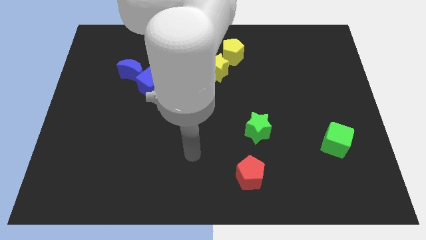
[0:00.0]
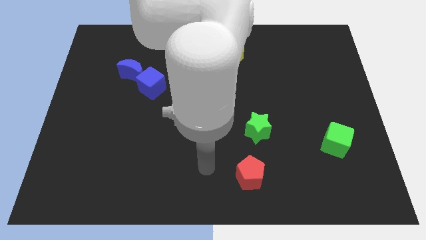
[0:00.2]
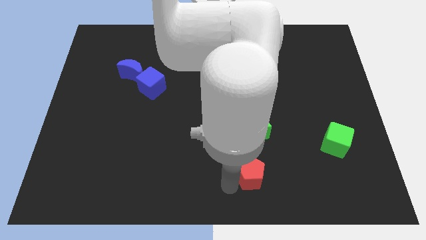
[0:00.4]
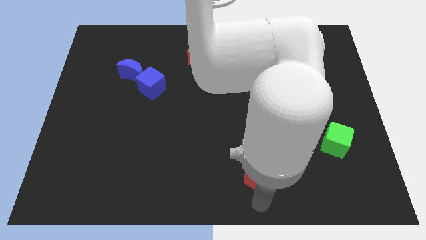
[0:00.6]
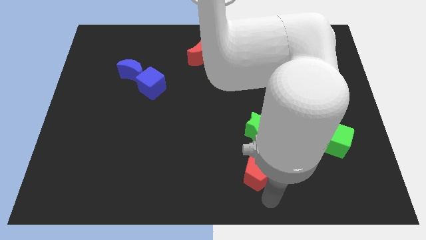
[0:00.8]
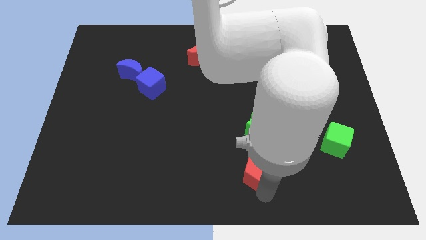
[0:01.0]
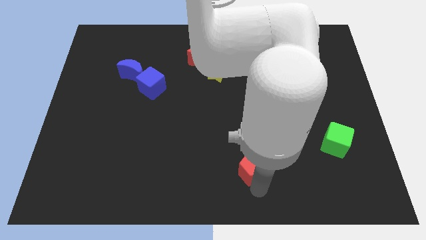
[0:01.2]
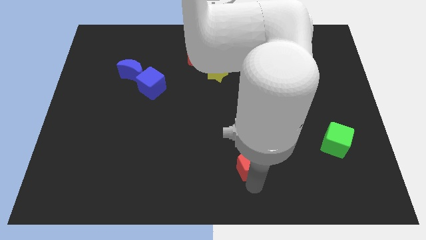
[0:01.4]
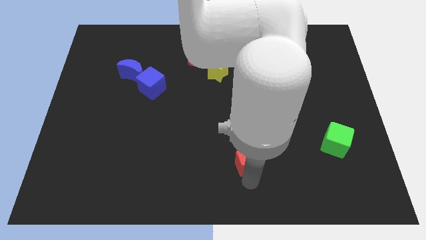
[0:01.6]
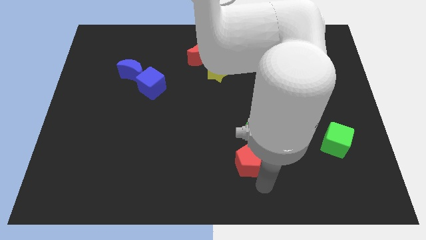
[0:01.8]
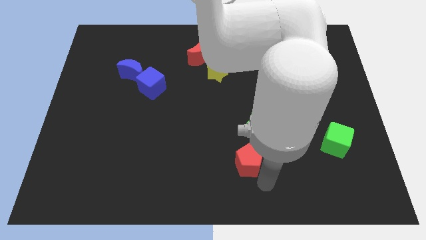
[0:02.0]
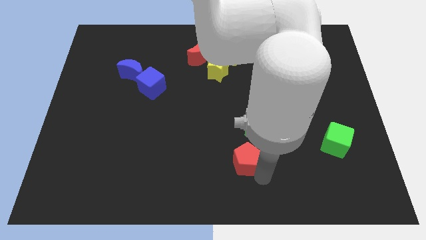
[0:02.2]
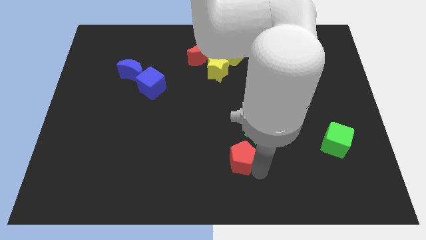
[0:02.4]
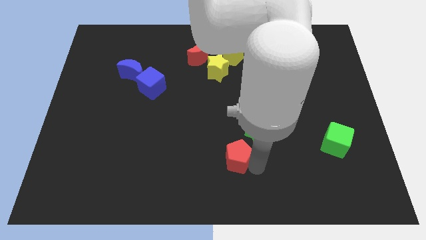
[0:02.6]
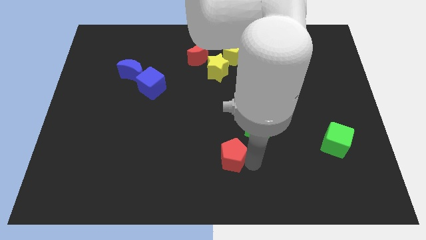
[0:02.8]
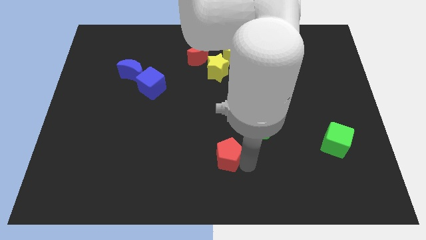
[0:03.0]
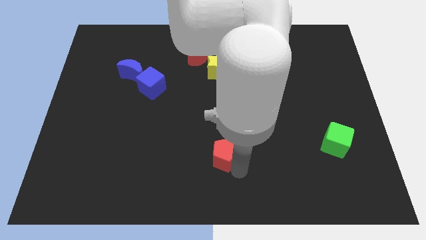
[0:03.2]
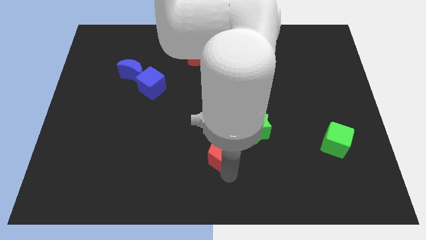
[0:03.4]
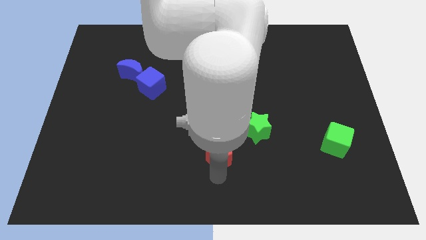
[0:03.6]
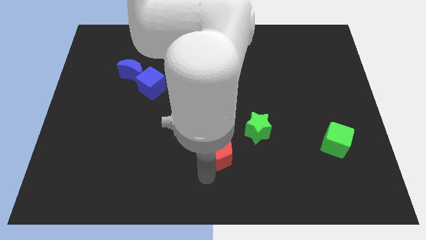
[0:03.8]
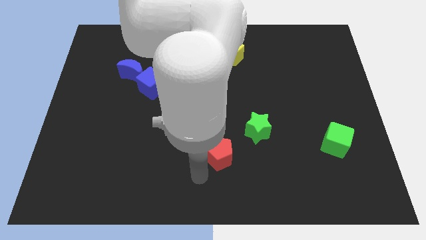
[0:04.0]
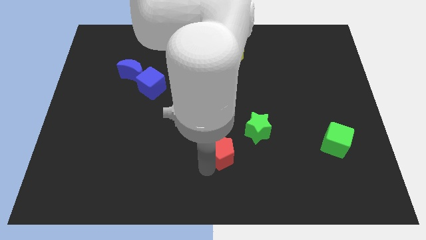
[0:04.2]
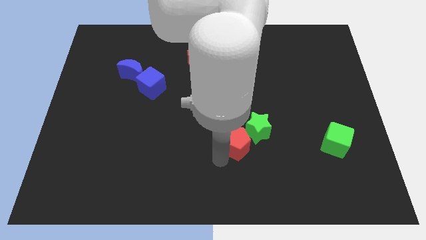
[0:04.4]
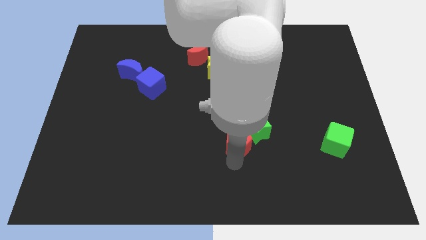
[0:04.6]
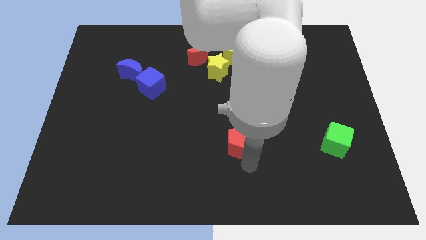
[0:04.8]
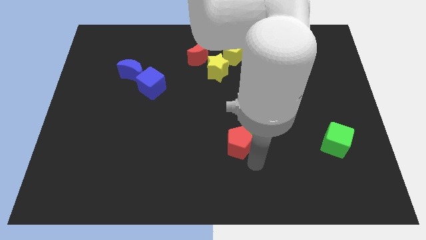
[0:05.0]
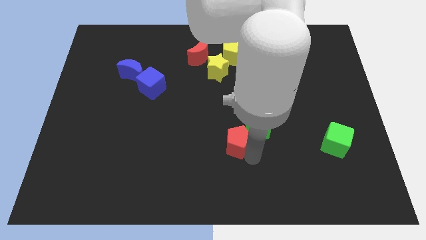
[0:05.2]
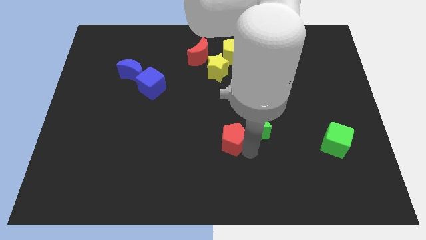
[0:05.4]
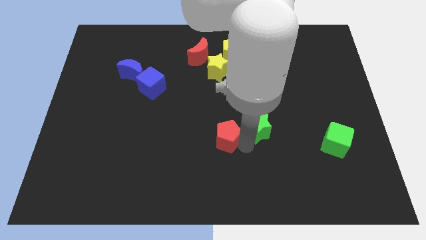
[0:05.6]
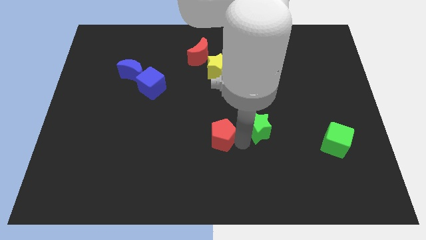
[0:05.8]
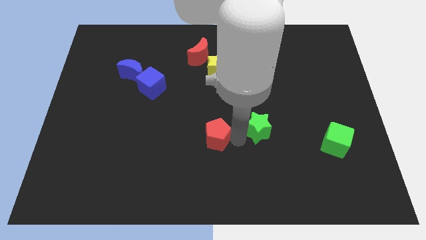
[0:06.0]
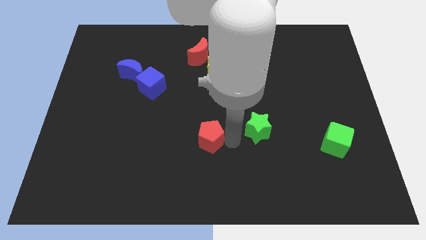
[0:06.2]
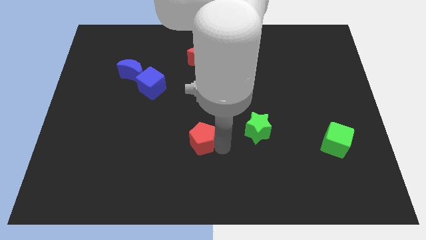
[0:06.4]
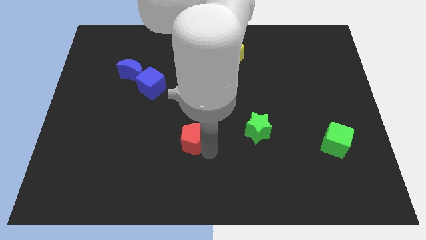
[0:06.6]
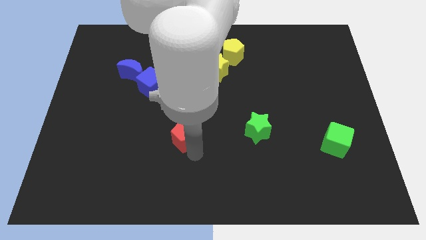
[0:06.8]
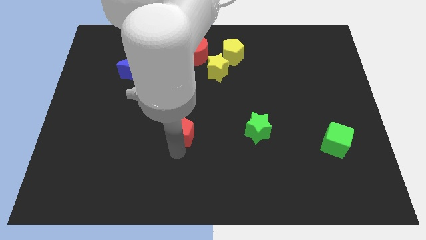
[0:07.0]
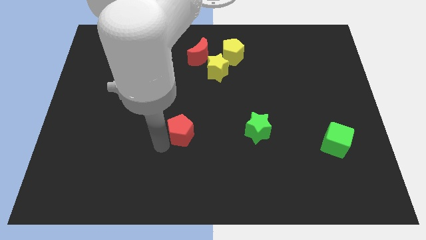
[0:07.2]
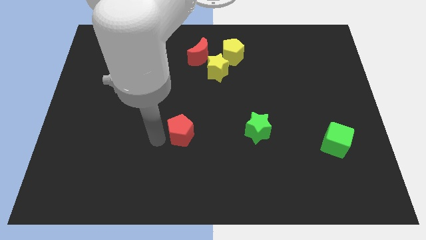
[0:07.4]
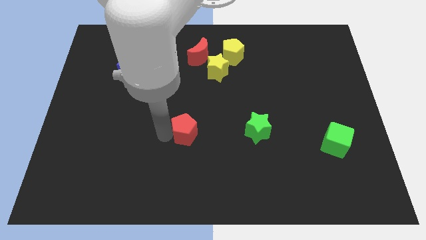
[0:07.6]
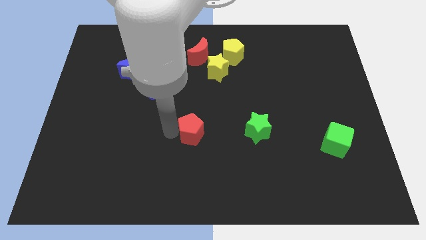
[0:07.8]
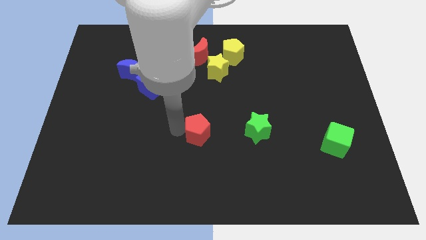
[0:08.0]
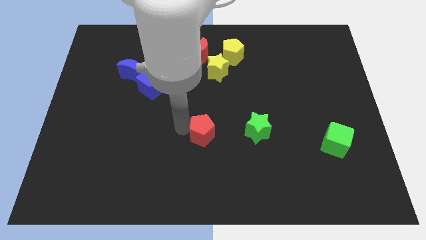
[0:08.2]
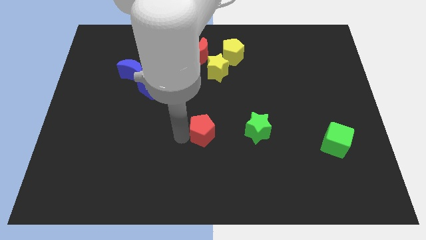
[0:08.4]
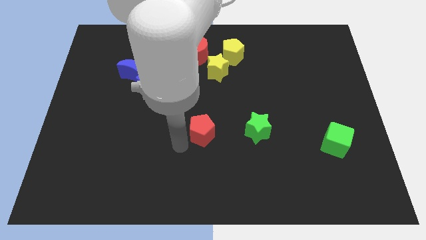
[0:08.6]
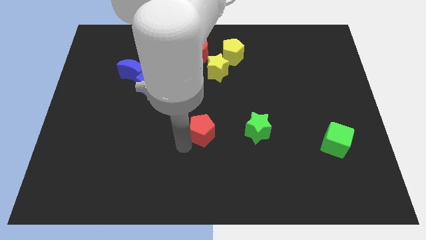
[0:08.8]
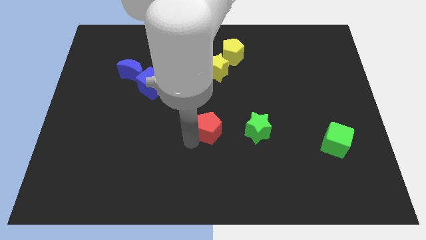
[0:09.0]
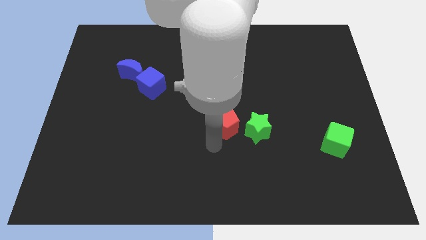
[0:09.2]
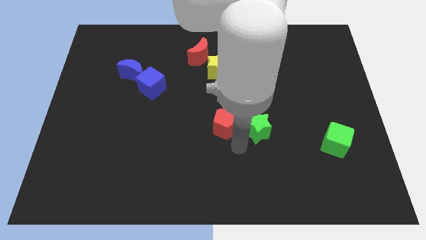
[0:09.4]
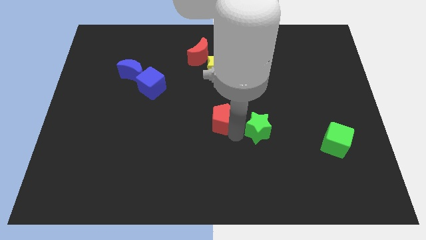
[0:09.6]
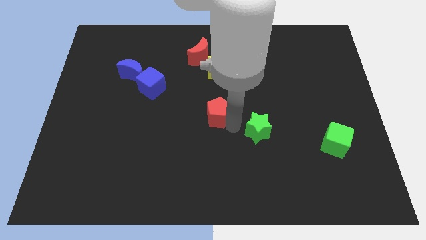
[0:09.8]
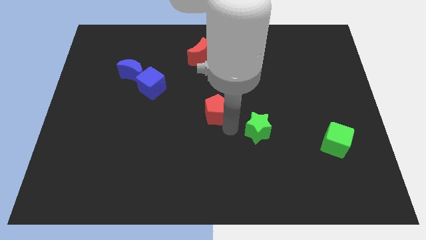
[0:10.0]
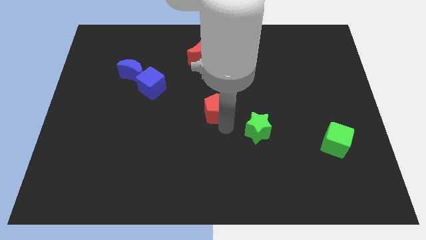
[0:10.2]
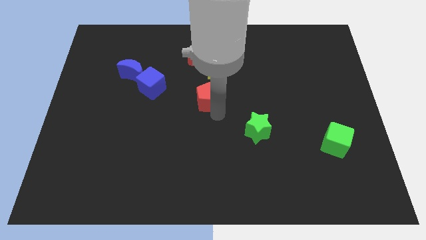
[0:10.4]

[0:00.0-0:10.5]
move the red pentagon below the red moon

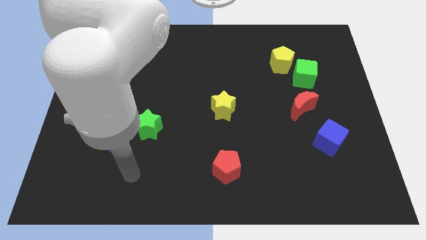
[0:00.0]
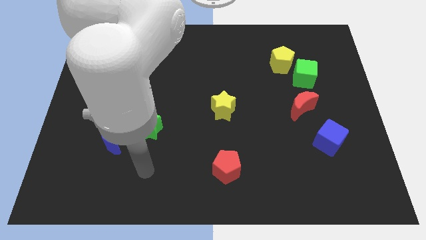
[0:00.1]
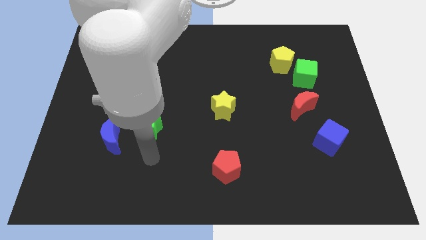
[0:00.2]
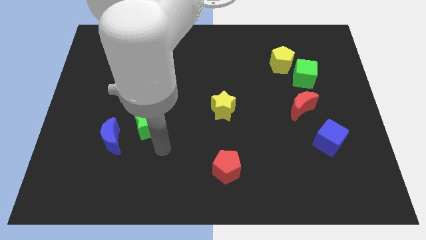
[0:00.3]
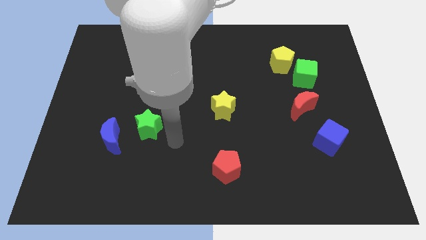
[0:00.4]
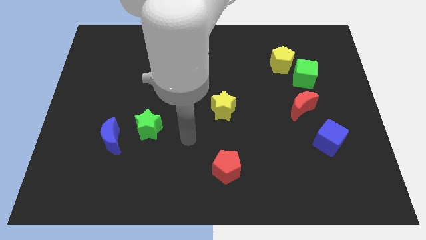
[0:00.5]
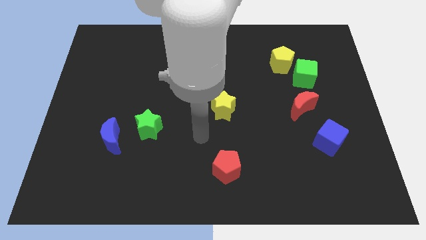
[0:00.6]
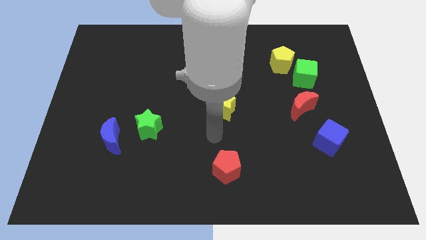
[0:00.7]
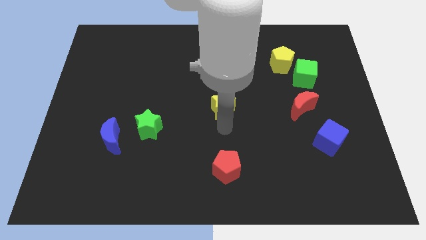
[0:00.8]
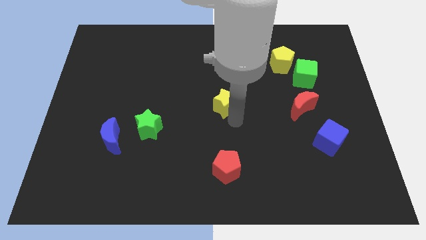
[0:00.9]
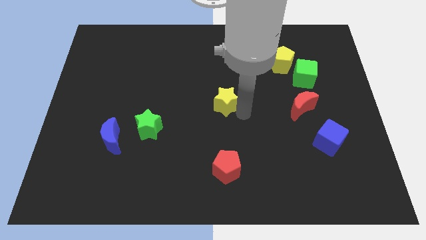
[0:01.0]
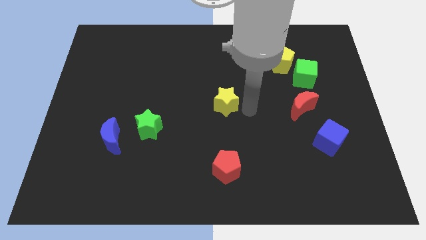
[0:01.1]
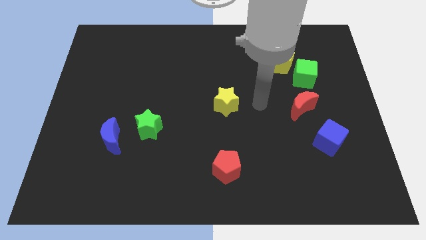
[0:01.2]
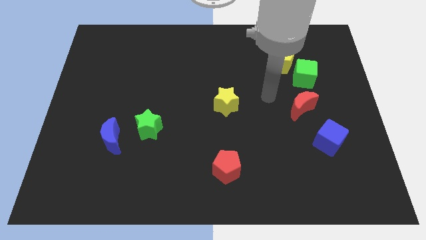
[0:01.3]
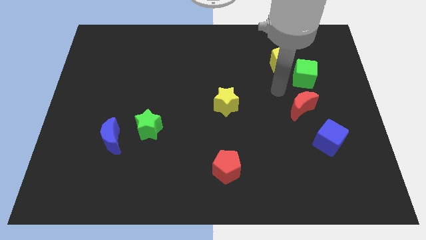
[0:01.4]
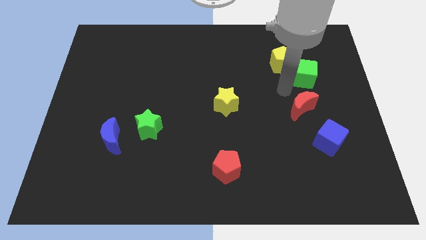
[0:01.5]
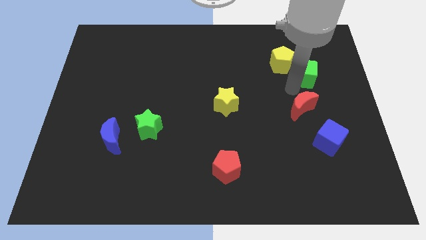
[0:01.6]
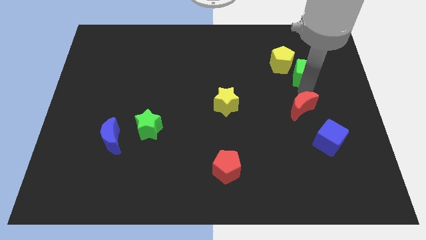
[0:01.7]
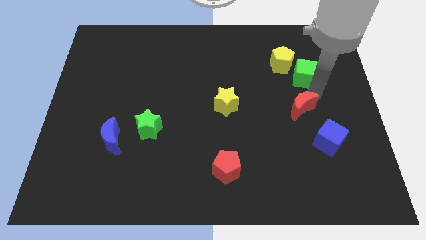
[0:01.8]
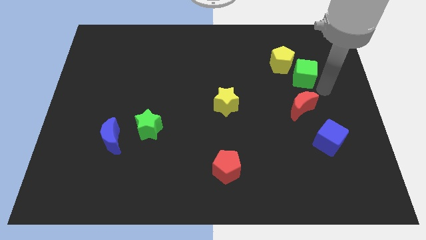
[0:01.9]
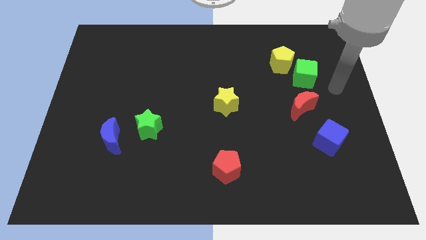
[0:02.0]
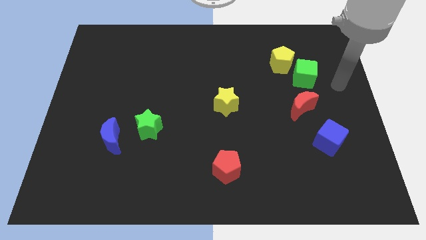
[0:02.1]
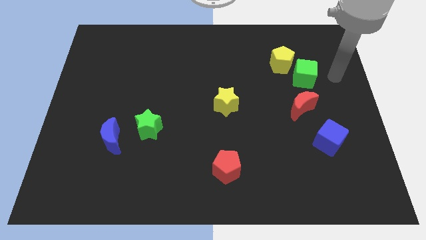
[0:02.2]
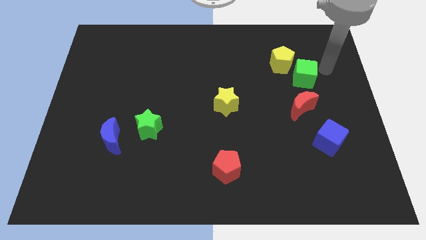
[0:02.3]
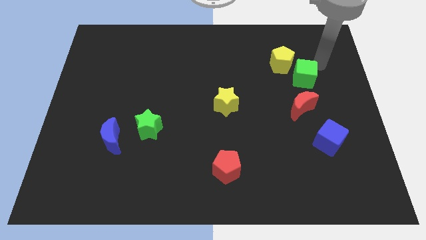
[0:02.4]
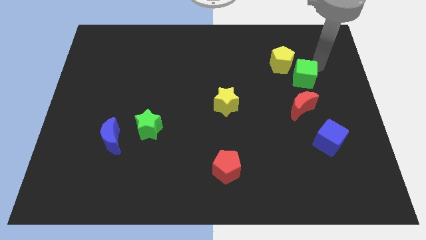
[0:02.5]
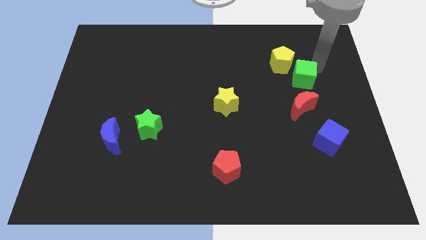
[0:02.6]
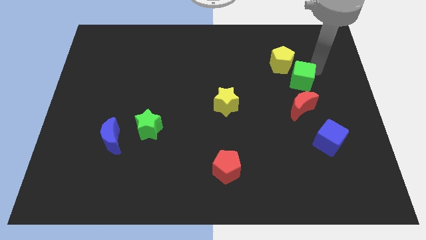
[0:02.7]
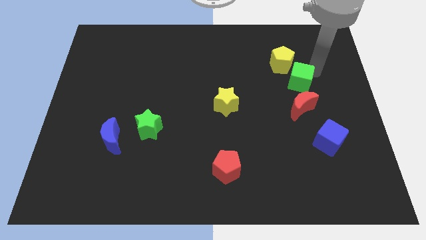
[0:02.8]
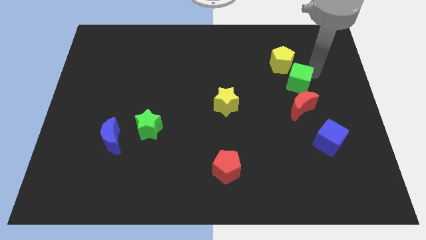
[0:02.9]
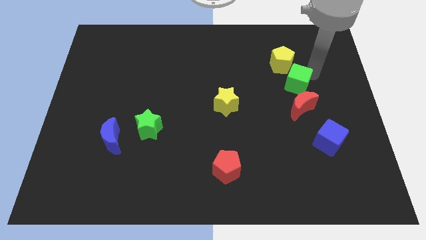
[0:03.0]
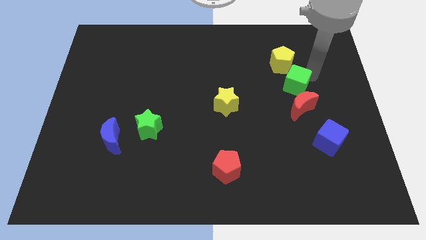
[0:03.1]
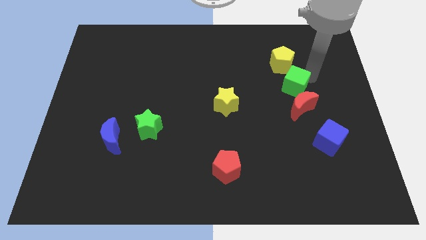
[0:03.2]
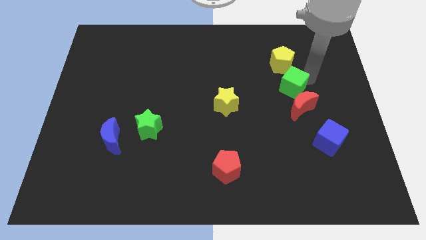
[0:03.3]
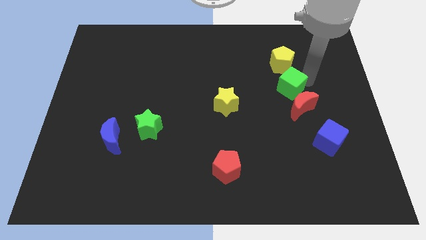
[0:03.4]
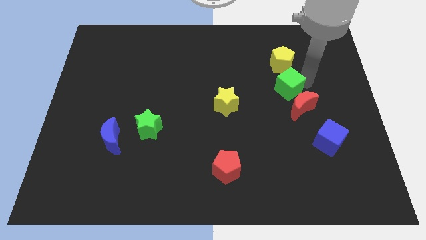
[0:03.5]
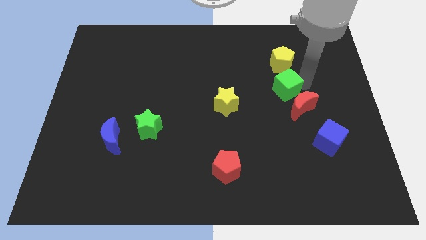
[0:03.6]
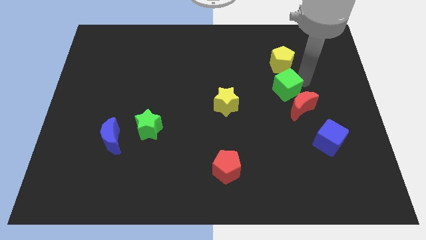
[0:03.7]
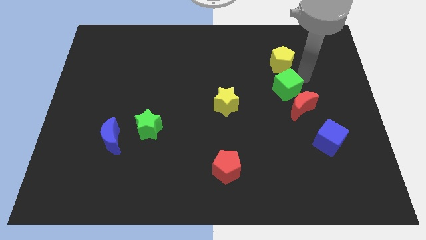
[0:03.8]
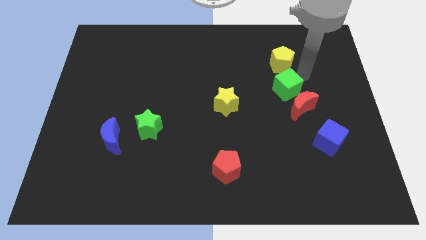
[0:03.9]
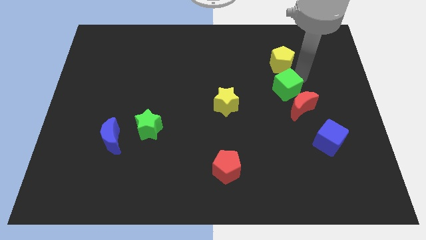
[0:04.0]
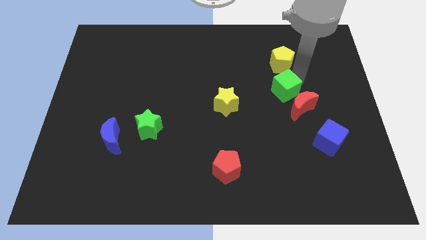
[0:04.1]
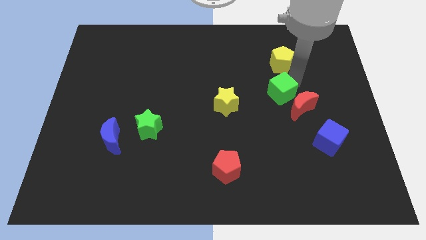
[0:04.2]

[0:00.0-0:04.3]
move the green cube left of the red moon
